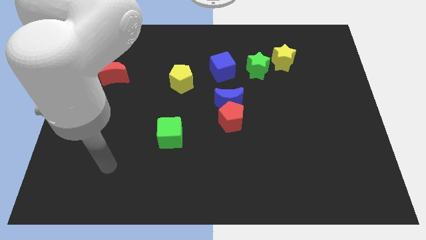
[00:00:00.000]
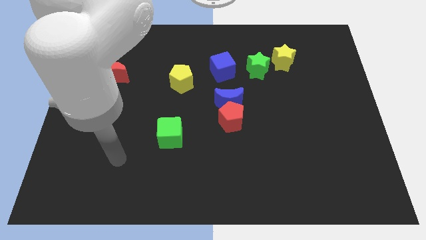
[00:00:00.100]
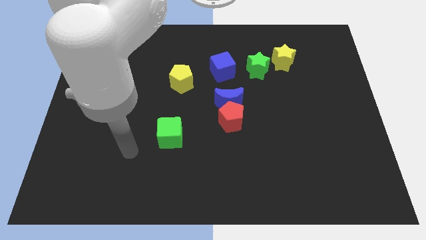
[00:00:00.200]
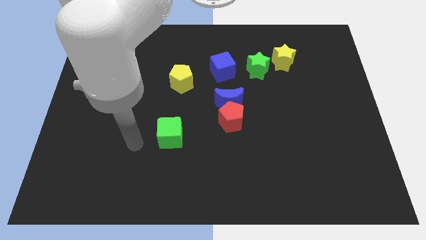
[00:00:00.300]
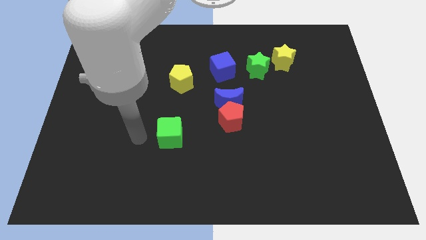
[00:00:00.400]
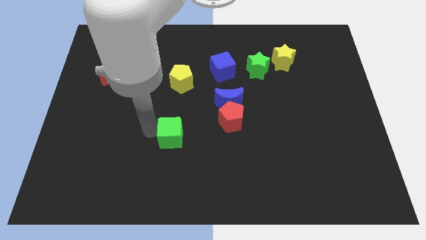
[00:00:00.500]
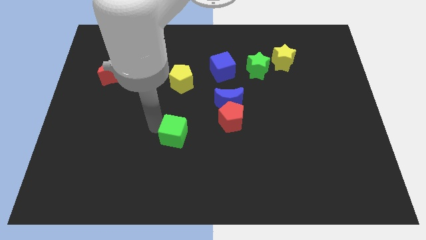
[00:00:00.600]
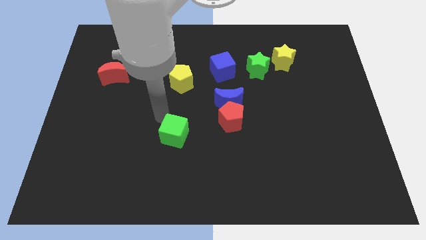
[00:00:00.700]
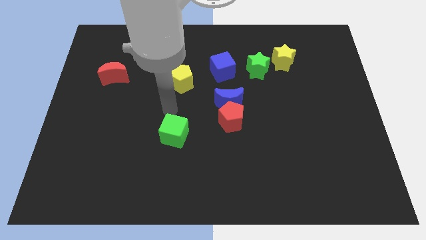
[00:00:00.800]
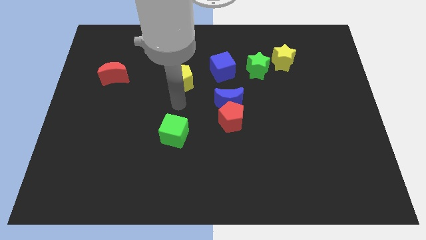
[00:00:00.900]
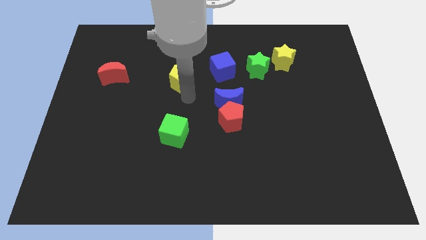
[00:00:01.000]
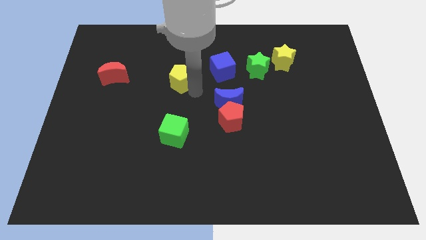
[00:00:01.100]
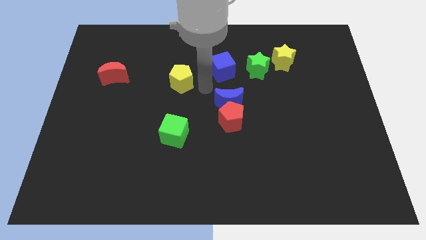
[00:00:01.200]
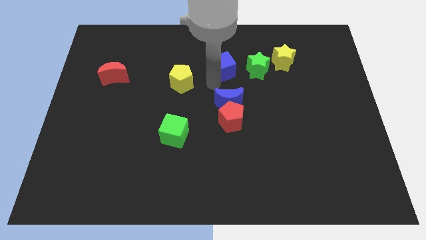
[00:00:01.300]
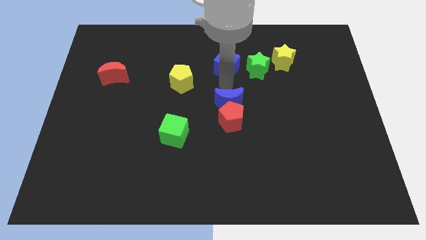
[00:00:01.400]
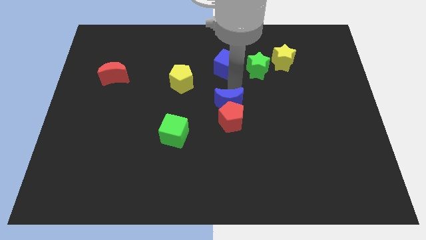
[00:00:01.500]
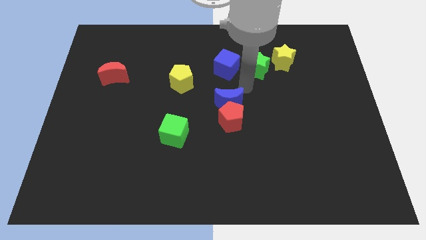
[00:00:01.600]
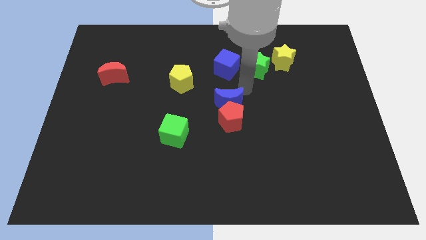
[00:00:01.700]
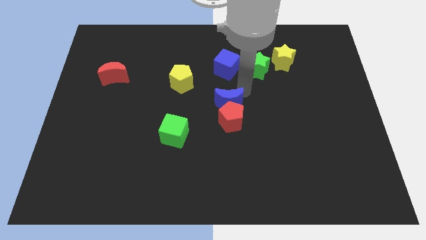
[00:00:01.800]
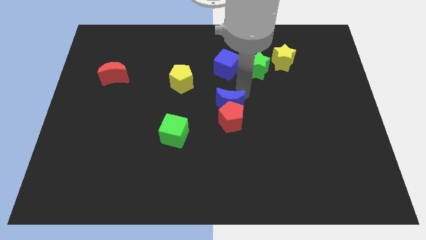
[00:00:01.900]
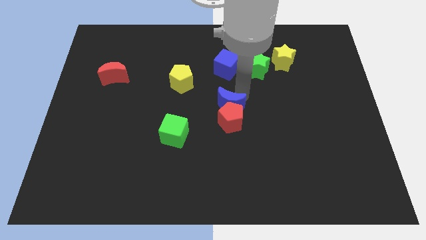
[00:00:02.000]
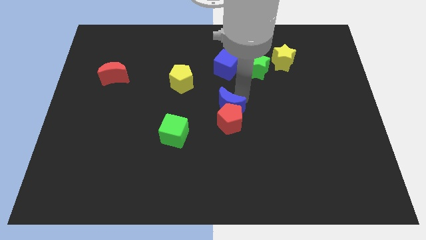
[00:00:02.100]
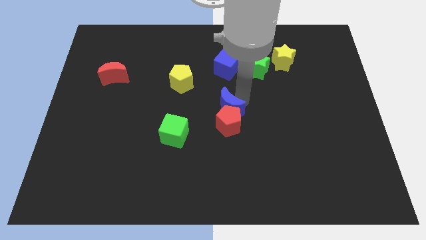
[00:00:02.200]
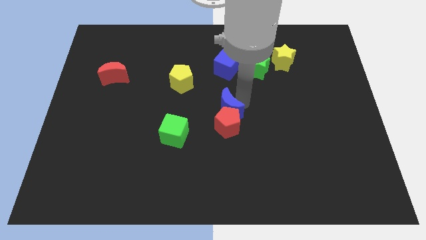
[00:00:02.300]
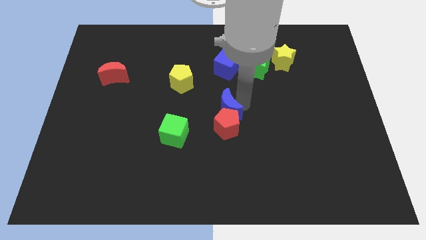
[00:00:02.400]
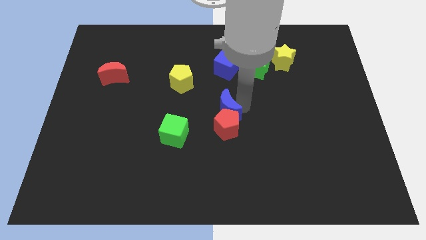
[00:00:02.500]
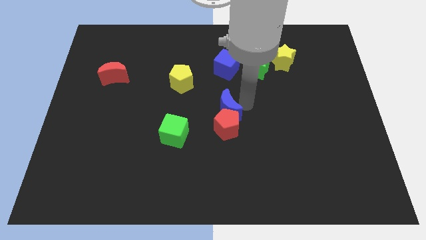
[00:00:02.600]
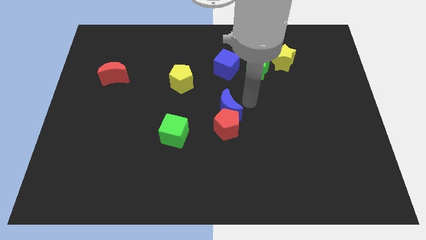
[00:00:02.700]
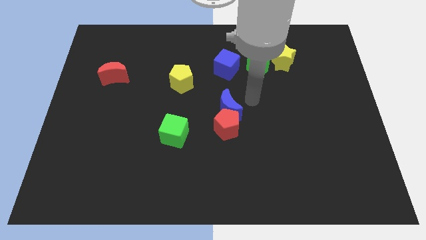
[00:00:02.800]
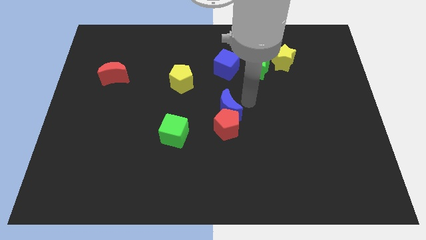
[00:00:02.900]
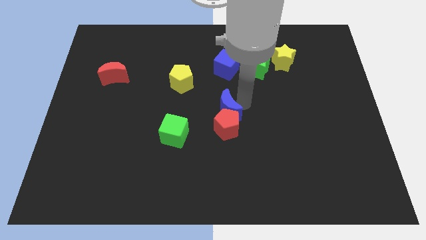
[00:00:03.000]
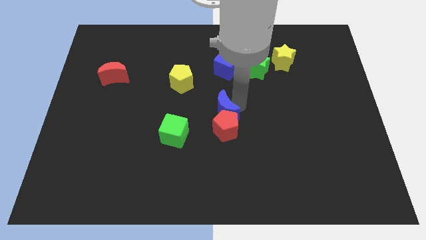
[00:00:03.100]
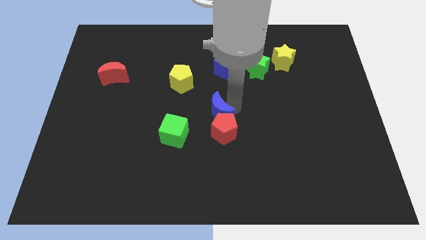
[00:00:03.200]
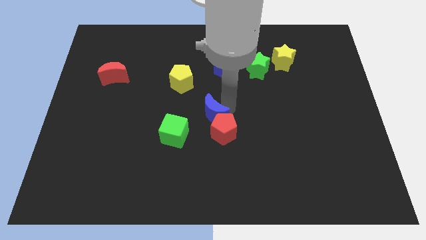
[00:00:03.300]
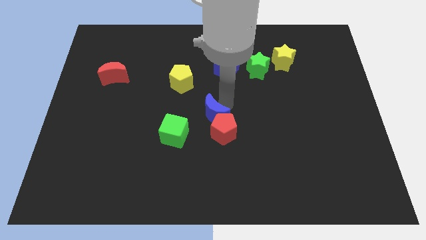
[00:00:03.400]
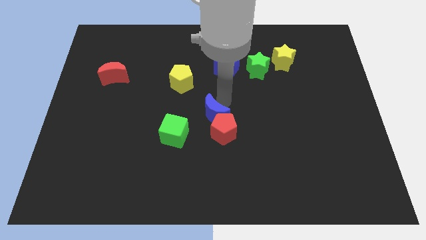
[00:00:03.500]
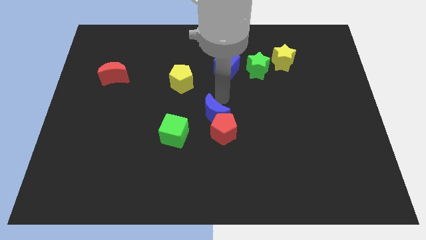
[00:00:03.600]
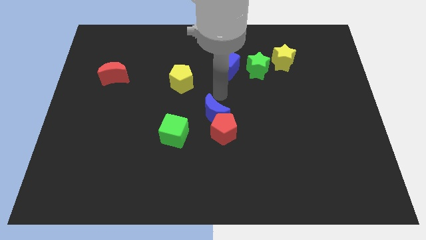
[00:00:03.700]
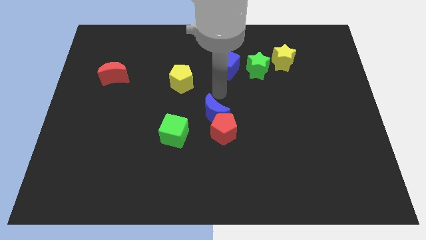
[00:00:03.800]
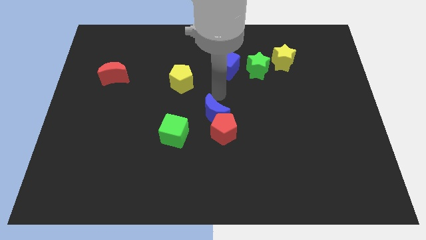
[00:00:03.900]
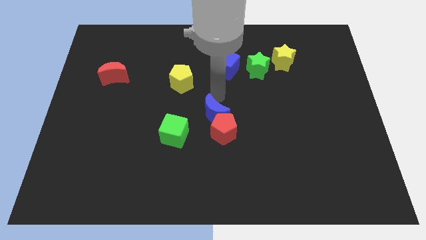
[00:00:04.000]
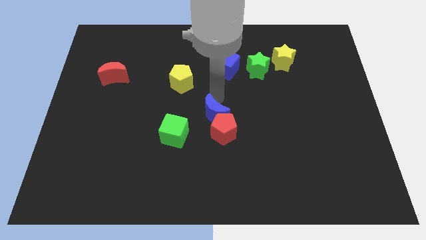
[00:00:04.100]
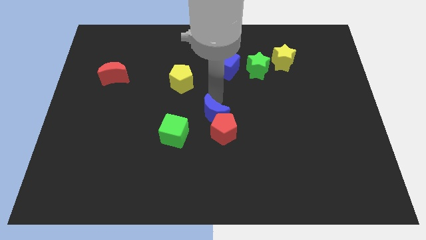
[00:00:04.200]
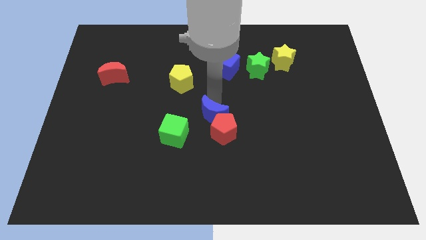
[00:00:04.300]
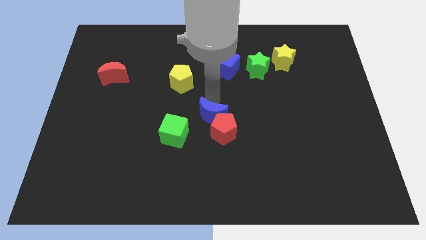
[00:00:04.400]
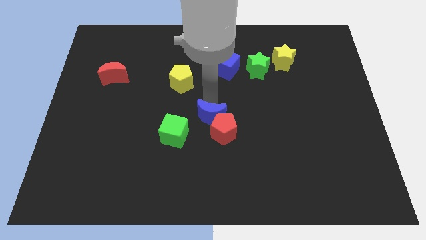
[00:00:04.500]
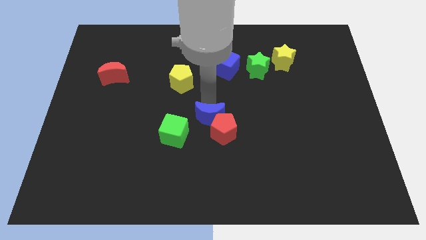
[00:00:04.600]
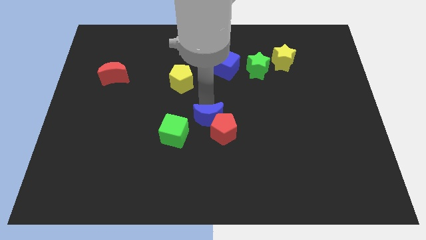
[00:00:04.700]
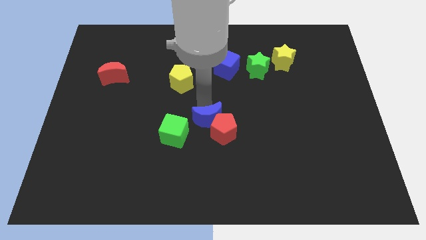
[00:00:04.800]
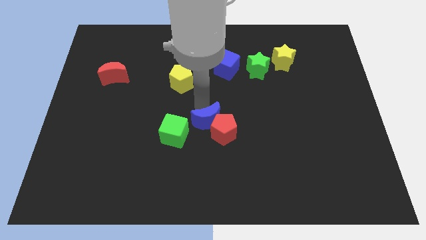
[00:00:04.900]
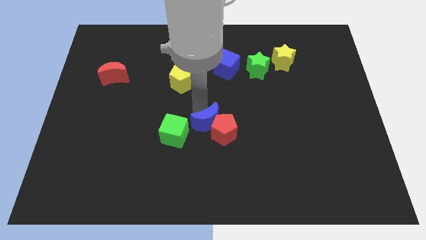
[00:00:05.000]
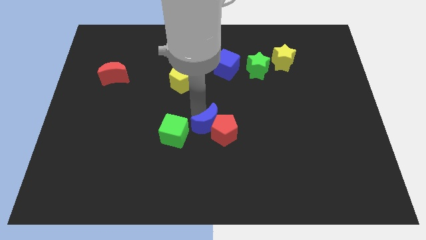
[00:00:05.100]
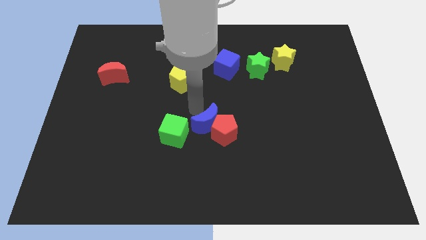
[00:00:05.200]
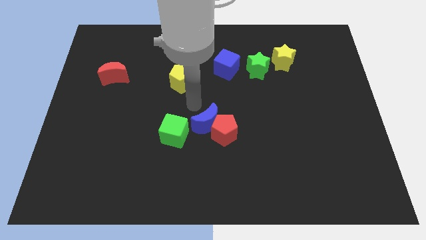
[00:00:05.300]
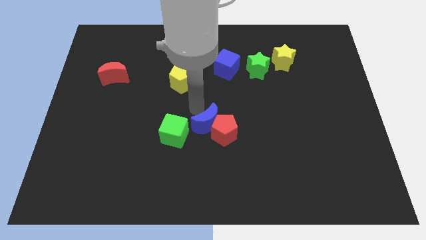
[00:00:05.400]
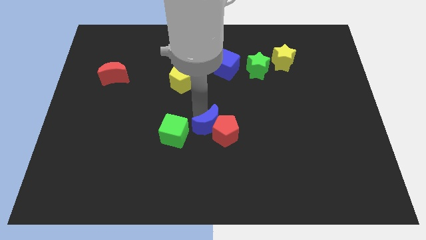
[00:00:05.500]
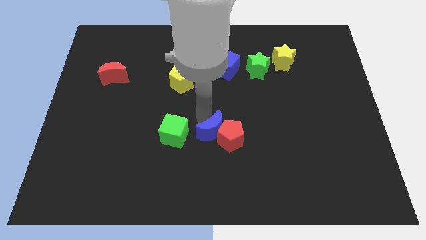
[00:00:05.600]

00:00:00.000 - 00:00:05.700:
move the blue moon downwards somewhat

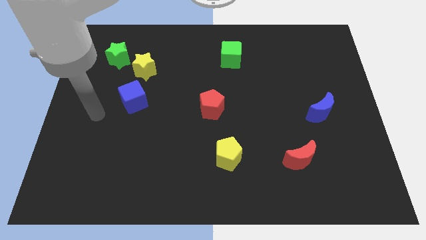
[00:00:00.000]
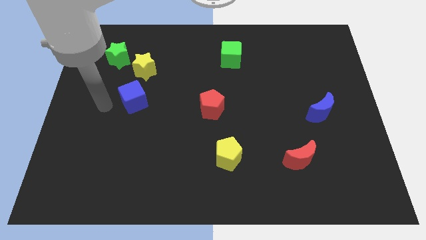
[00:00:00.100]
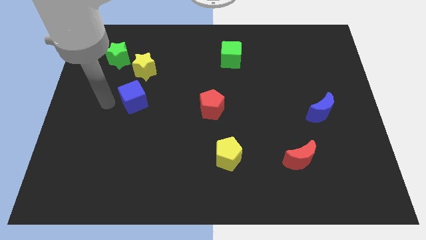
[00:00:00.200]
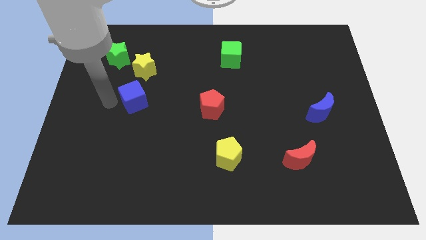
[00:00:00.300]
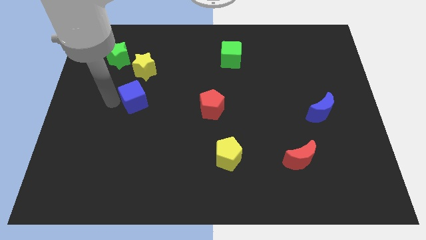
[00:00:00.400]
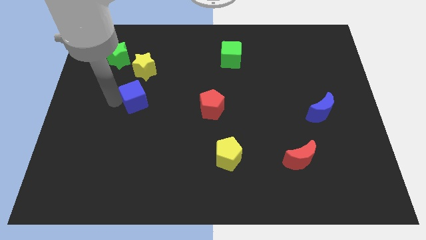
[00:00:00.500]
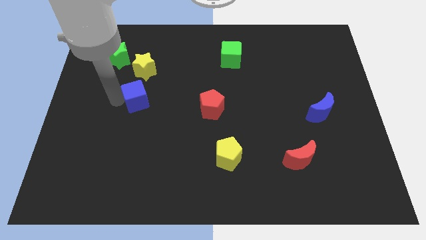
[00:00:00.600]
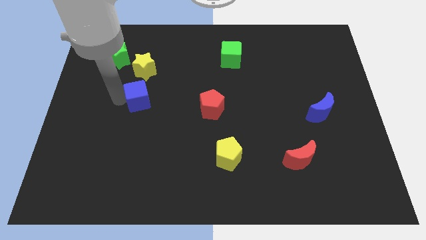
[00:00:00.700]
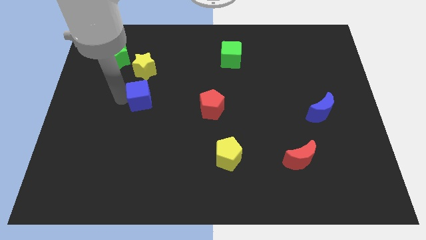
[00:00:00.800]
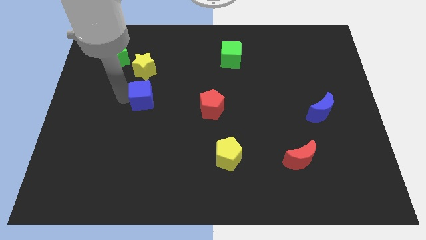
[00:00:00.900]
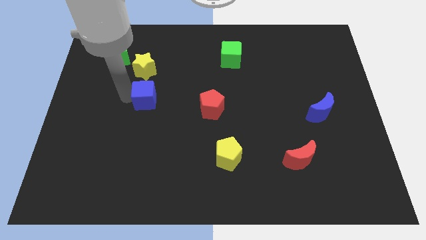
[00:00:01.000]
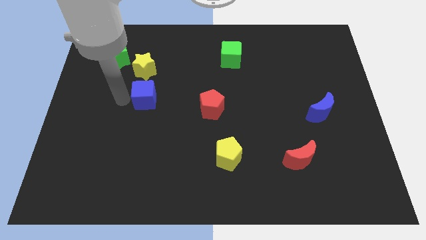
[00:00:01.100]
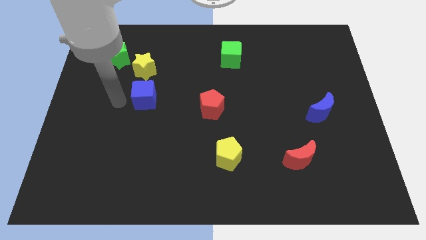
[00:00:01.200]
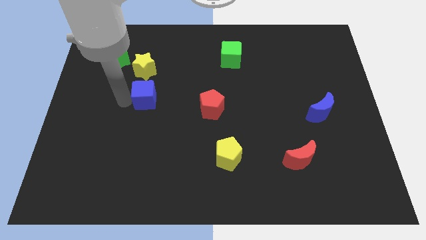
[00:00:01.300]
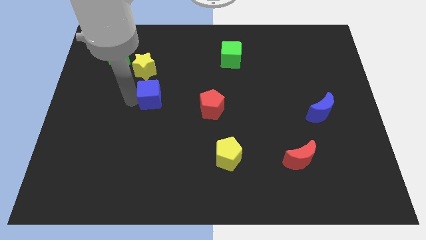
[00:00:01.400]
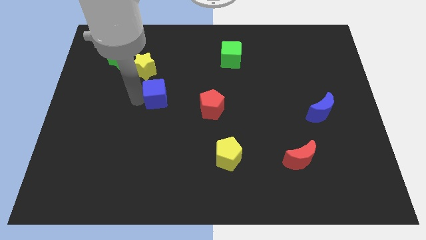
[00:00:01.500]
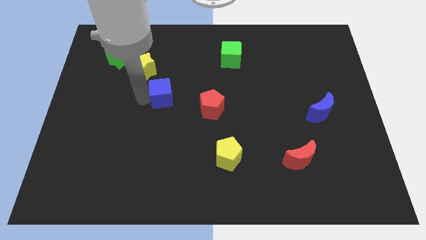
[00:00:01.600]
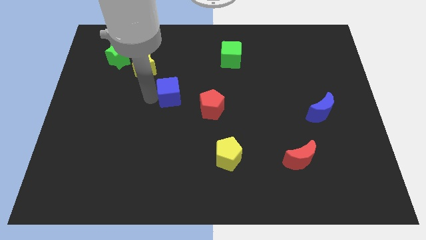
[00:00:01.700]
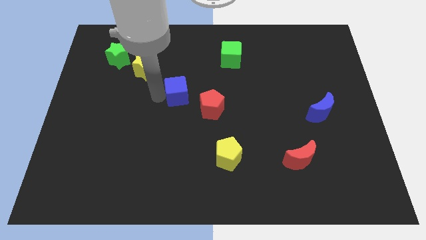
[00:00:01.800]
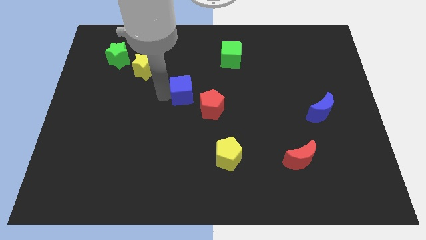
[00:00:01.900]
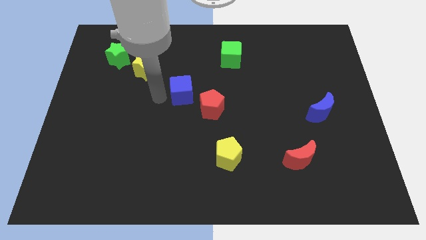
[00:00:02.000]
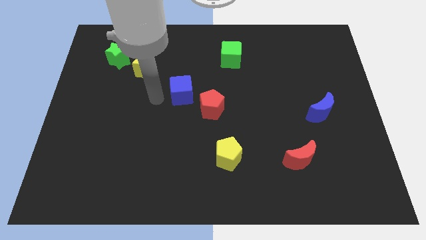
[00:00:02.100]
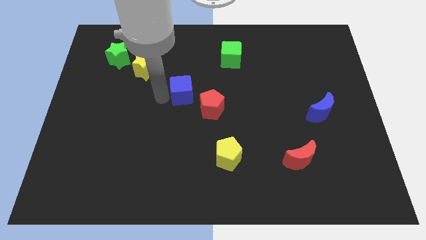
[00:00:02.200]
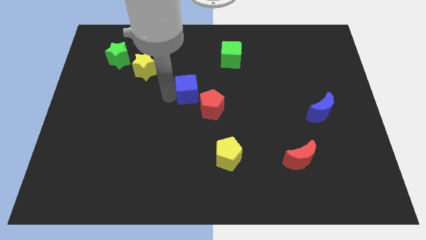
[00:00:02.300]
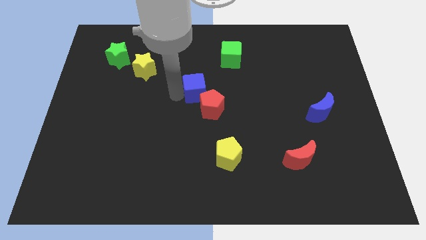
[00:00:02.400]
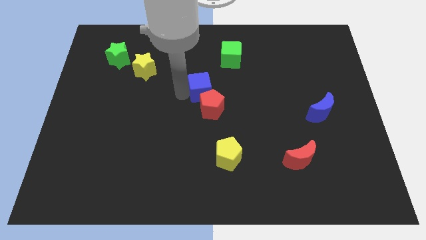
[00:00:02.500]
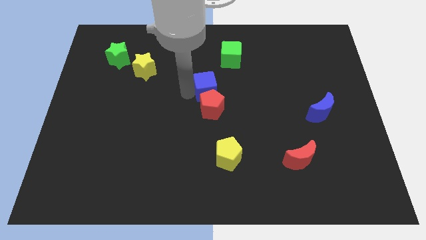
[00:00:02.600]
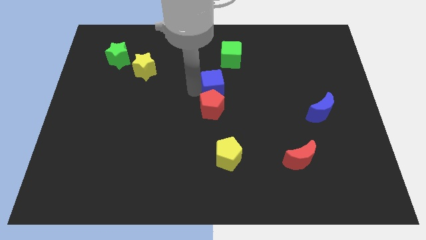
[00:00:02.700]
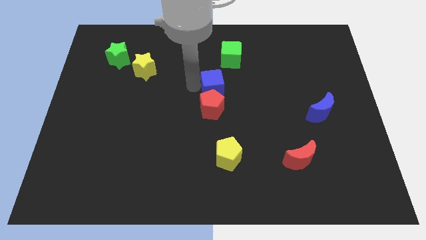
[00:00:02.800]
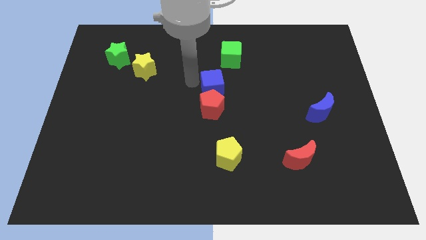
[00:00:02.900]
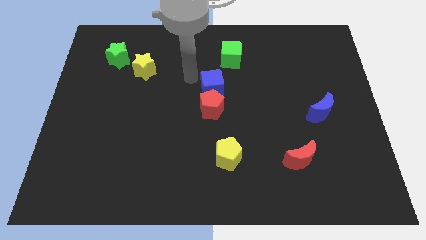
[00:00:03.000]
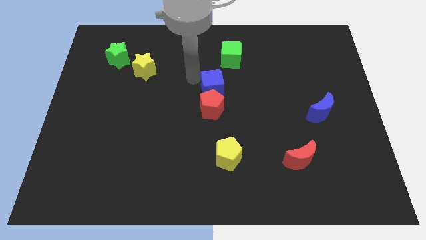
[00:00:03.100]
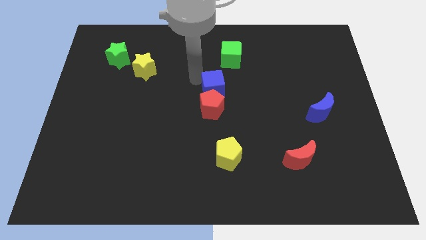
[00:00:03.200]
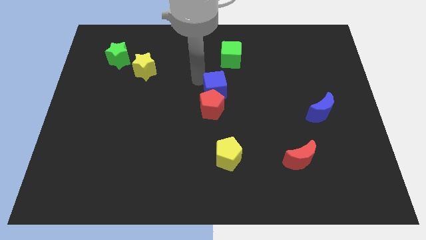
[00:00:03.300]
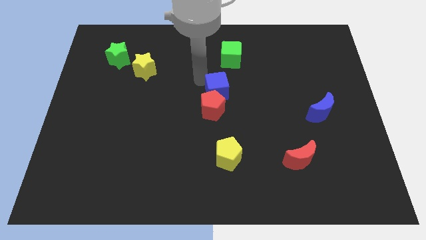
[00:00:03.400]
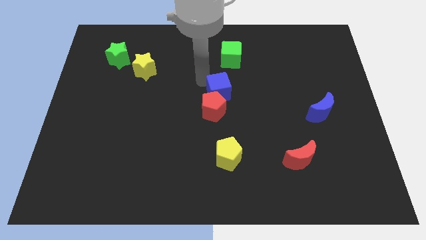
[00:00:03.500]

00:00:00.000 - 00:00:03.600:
move the blue cube right
